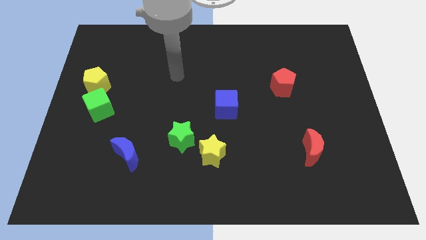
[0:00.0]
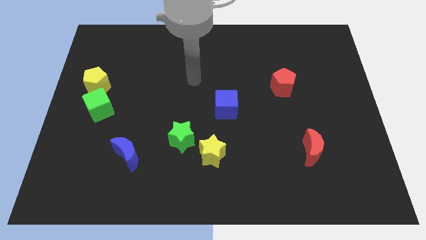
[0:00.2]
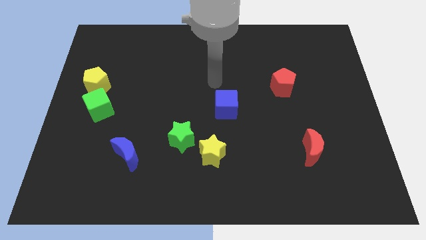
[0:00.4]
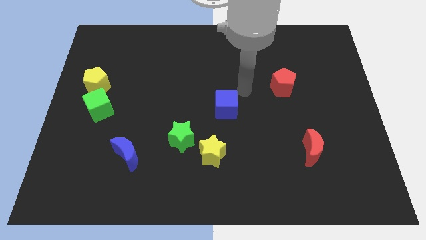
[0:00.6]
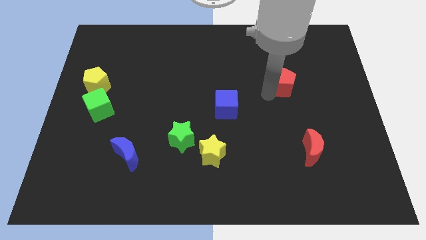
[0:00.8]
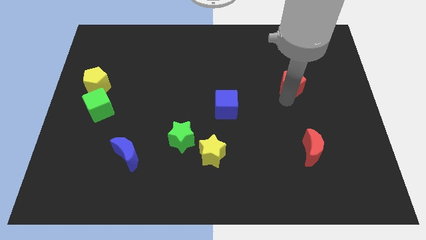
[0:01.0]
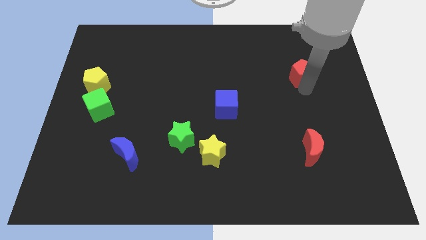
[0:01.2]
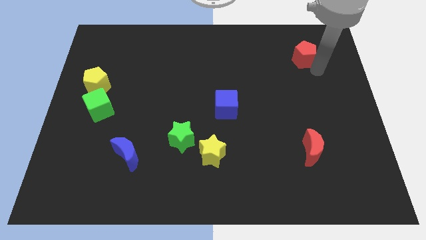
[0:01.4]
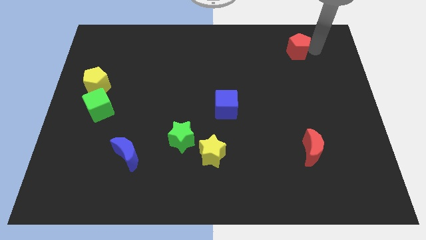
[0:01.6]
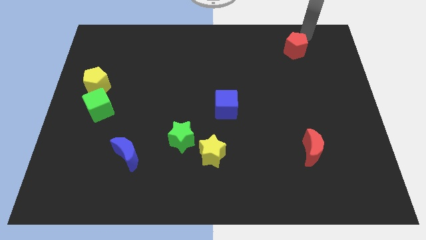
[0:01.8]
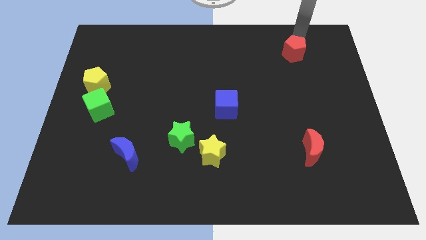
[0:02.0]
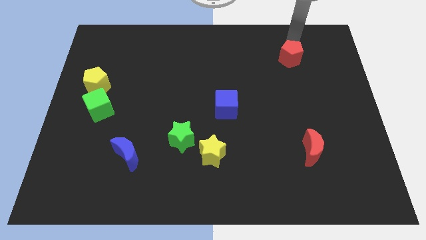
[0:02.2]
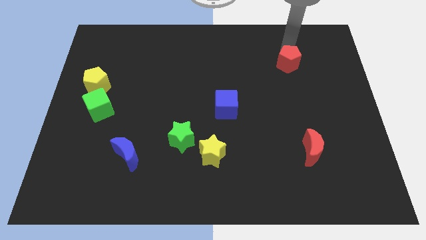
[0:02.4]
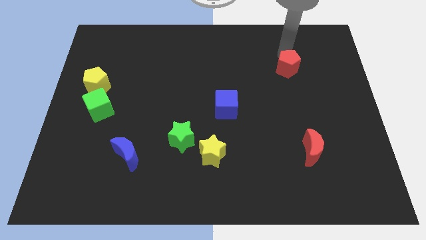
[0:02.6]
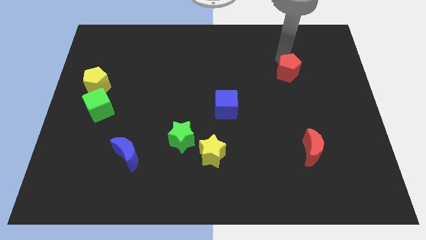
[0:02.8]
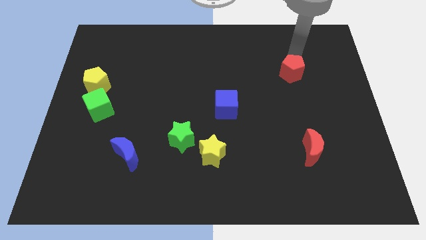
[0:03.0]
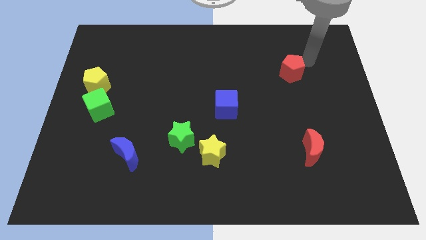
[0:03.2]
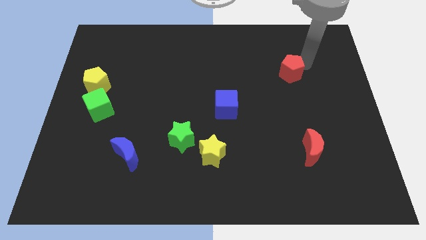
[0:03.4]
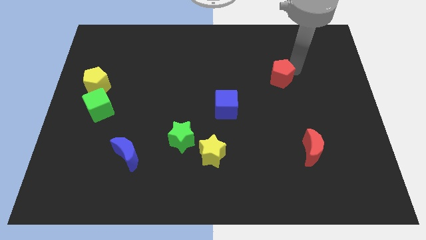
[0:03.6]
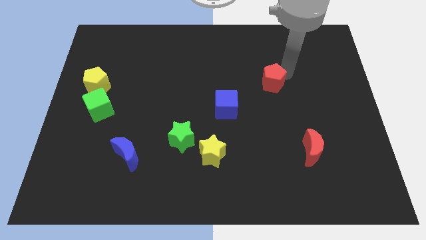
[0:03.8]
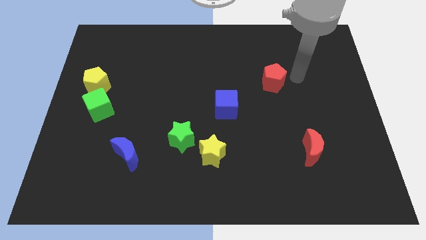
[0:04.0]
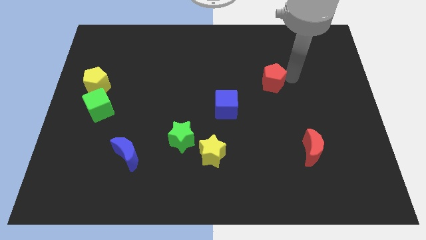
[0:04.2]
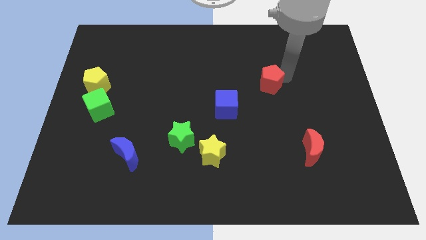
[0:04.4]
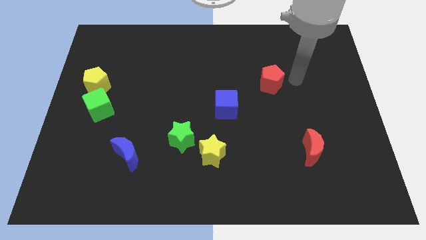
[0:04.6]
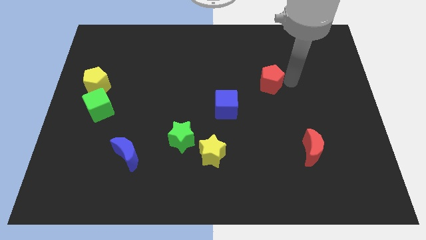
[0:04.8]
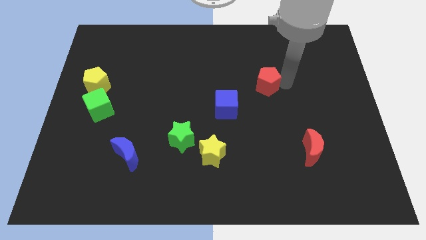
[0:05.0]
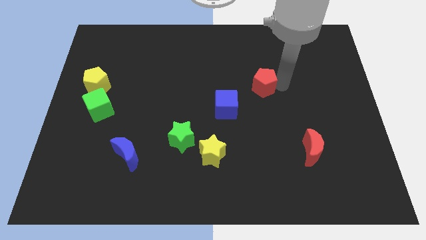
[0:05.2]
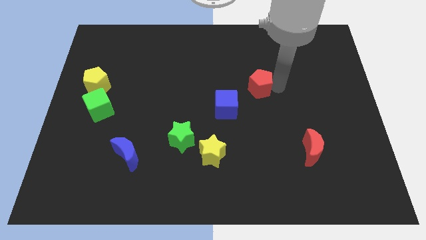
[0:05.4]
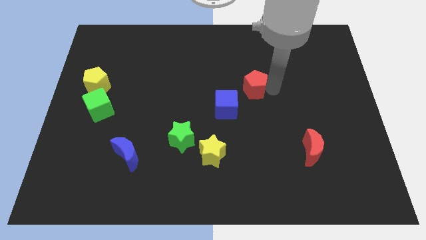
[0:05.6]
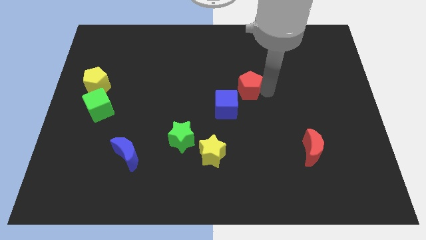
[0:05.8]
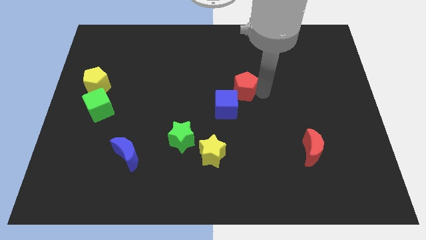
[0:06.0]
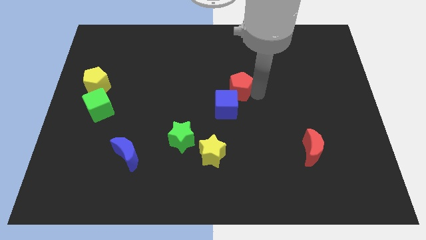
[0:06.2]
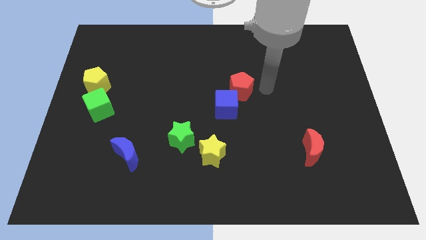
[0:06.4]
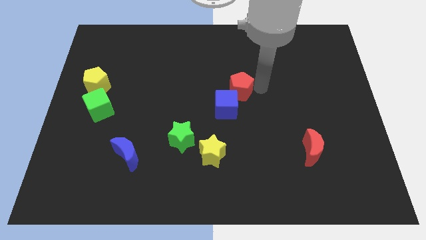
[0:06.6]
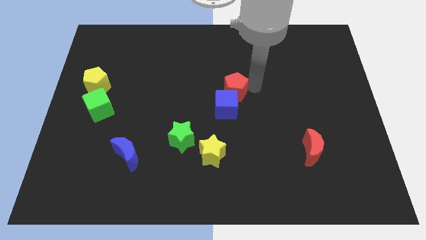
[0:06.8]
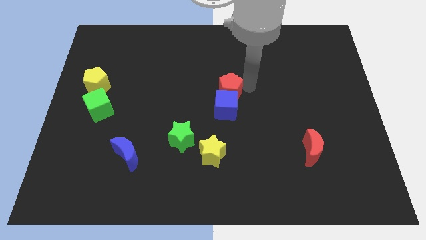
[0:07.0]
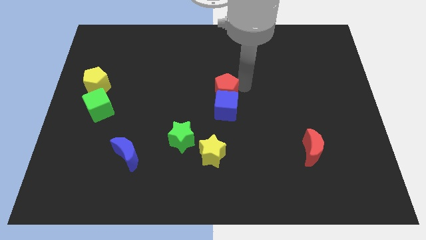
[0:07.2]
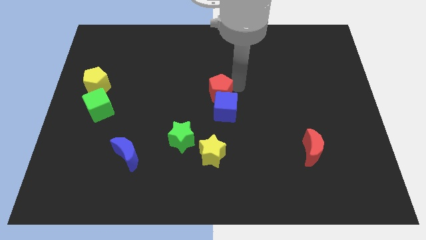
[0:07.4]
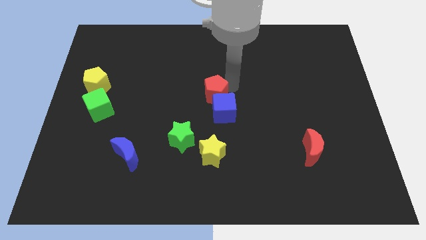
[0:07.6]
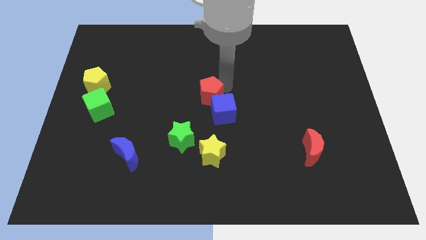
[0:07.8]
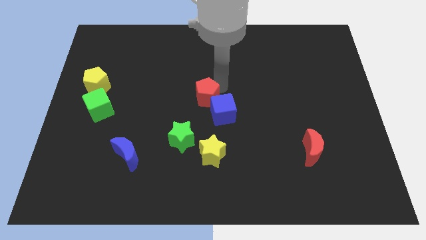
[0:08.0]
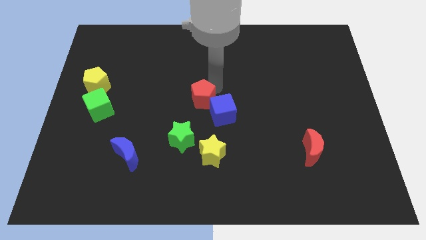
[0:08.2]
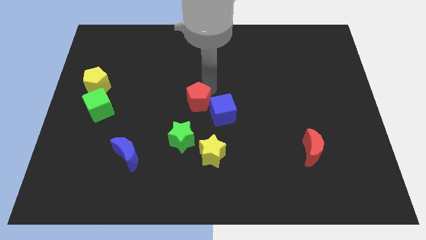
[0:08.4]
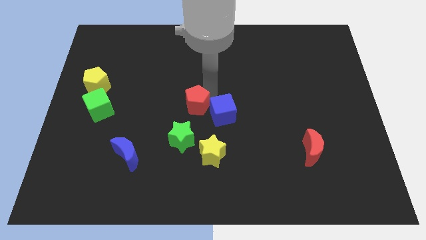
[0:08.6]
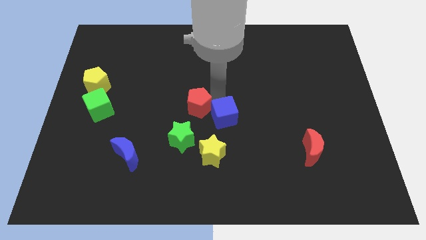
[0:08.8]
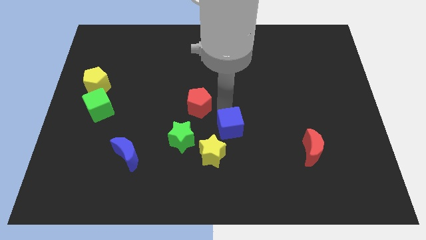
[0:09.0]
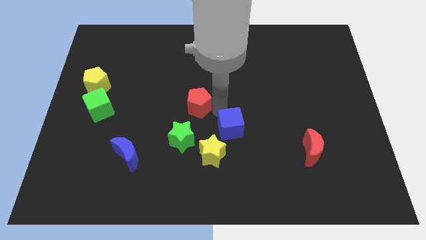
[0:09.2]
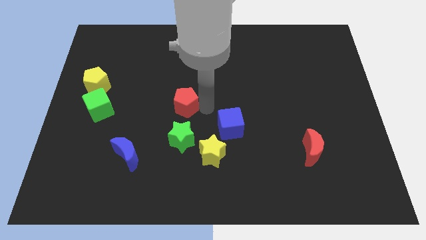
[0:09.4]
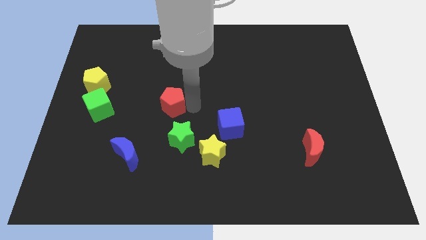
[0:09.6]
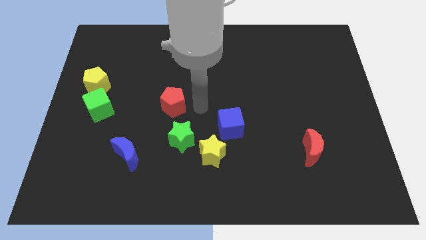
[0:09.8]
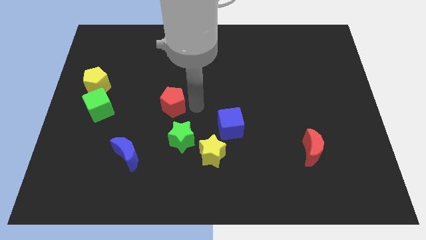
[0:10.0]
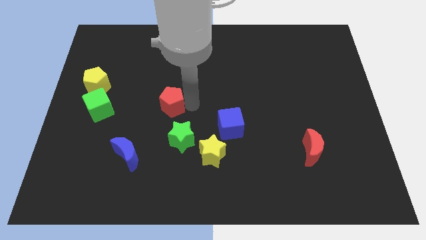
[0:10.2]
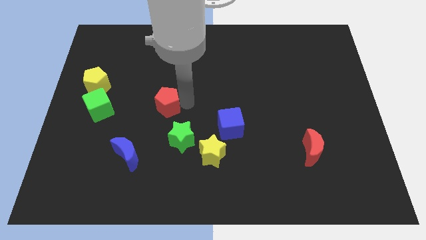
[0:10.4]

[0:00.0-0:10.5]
slide the red pentagon right of the green cube

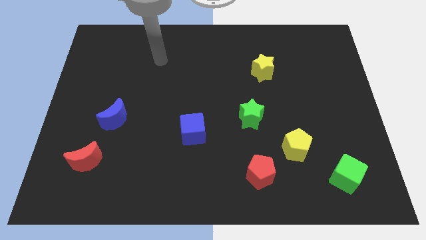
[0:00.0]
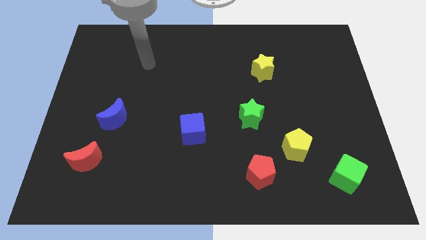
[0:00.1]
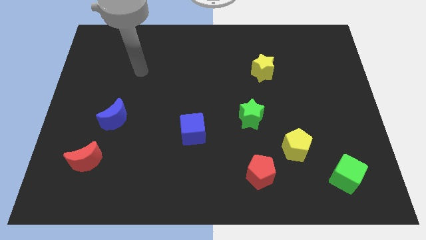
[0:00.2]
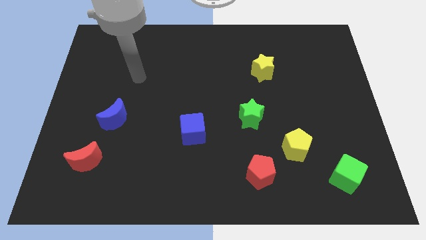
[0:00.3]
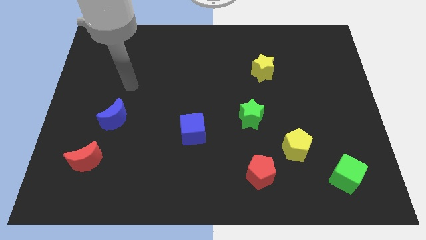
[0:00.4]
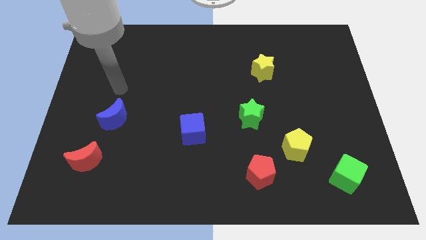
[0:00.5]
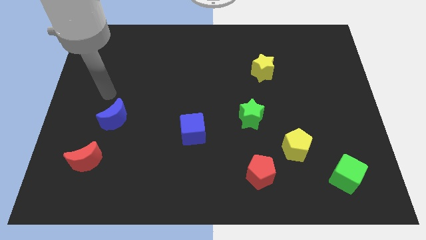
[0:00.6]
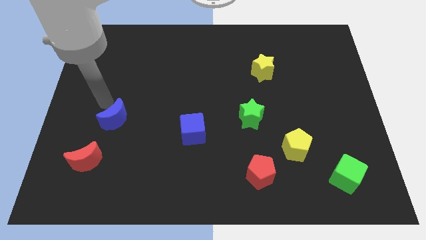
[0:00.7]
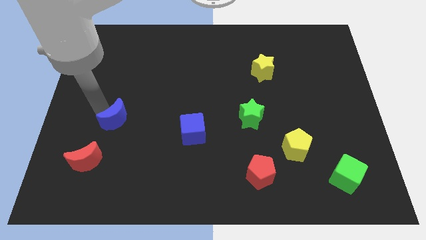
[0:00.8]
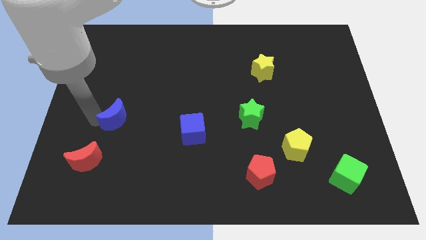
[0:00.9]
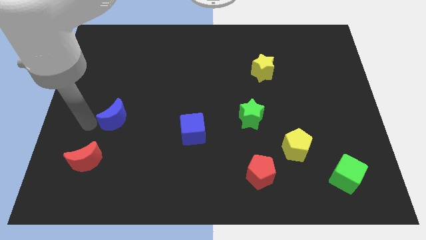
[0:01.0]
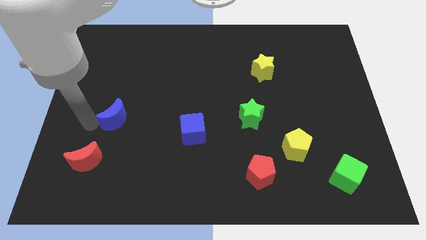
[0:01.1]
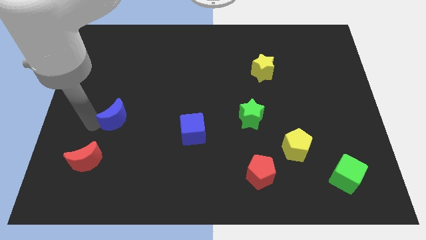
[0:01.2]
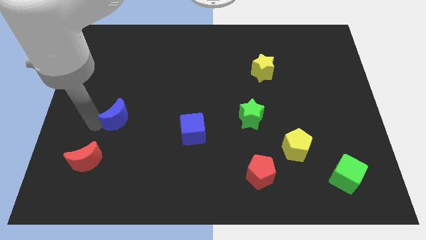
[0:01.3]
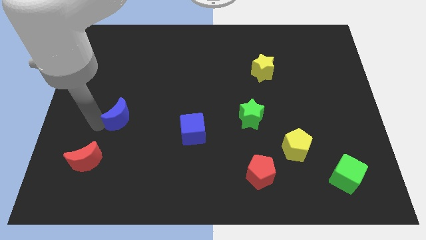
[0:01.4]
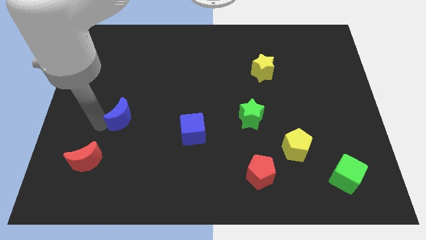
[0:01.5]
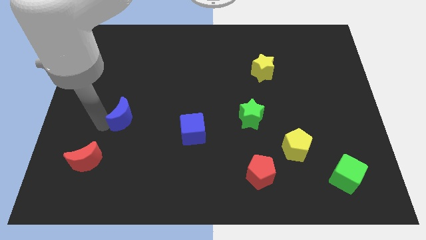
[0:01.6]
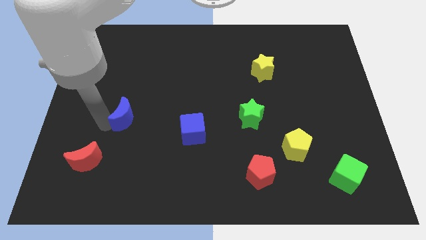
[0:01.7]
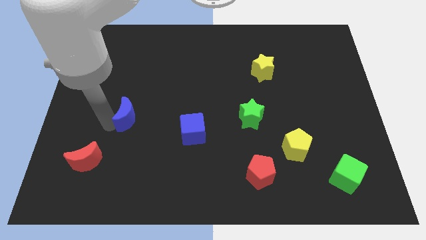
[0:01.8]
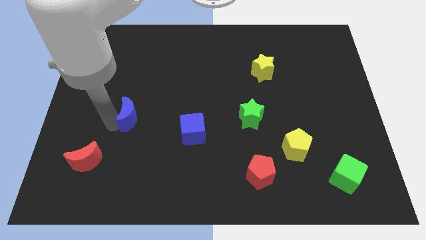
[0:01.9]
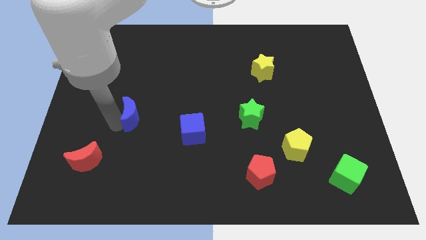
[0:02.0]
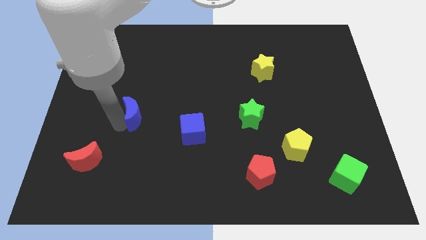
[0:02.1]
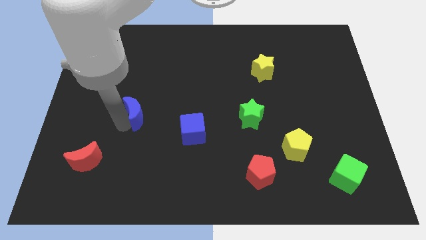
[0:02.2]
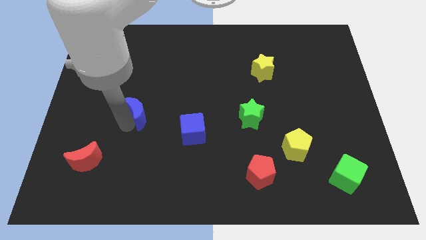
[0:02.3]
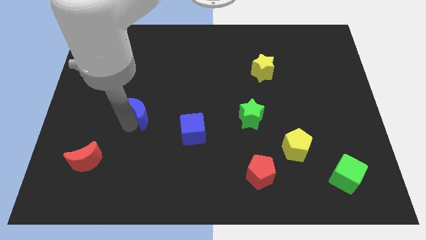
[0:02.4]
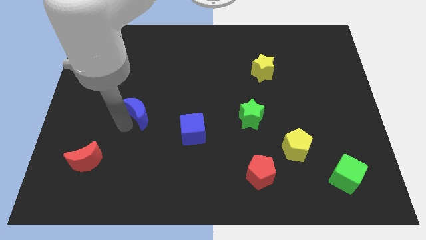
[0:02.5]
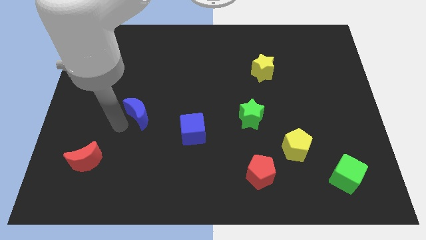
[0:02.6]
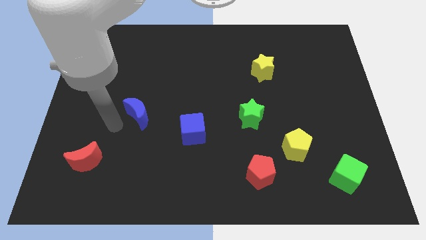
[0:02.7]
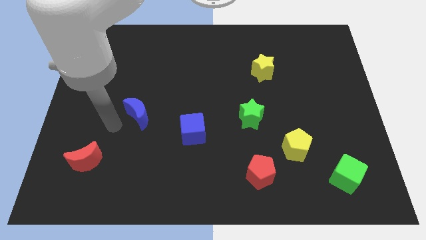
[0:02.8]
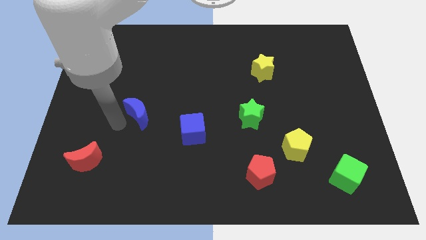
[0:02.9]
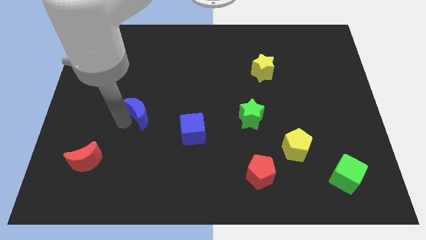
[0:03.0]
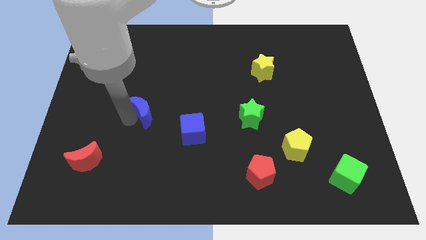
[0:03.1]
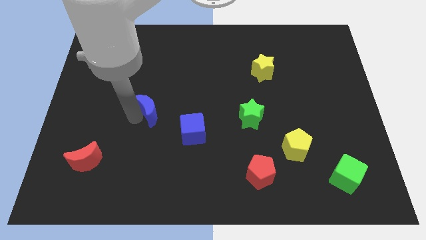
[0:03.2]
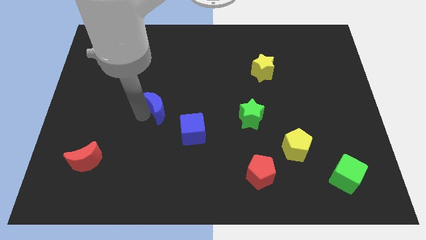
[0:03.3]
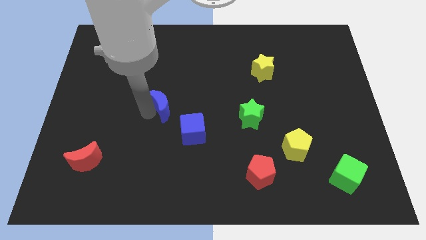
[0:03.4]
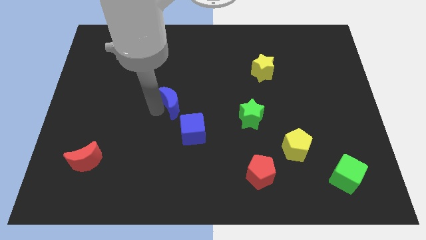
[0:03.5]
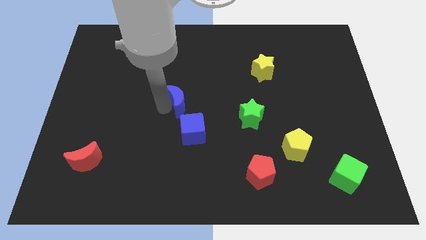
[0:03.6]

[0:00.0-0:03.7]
push the blue moon to the top side of the blue cube
